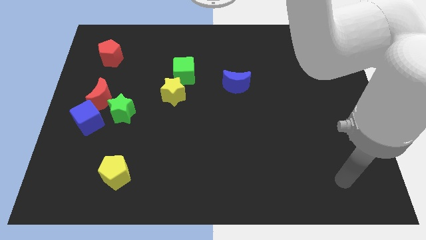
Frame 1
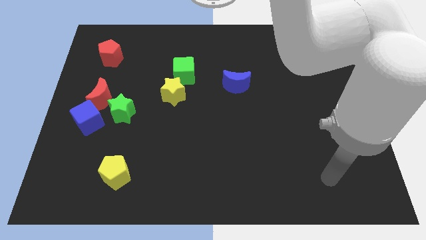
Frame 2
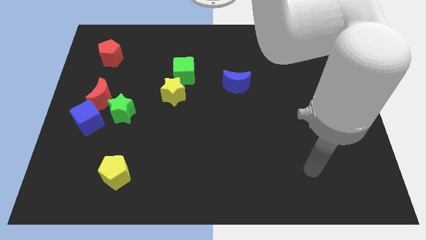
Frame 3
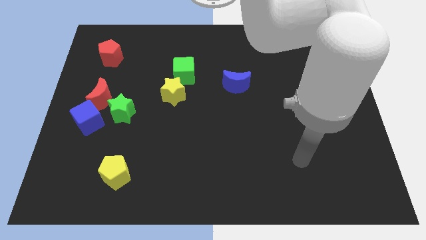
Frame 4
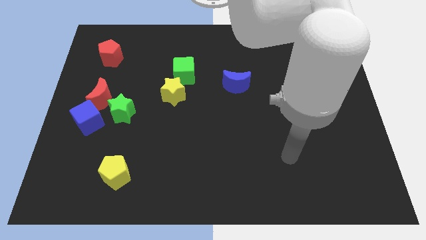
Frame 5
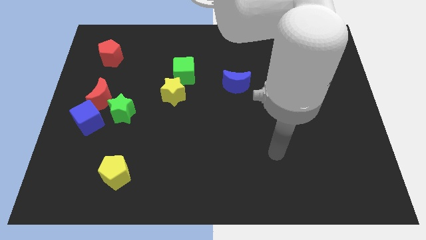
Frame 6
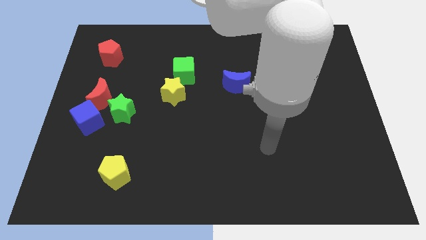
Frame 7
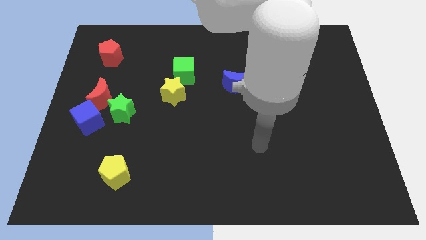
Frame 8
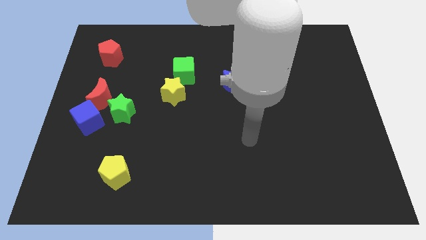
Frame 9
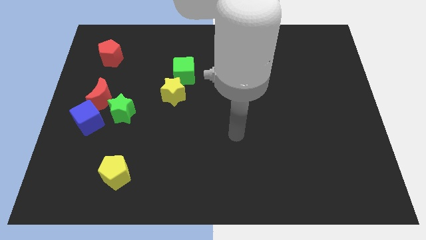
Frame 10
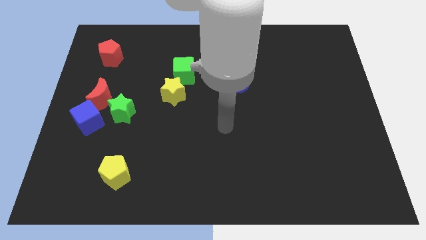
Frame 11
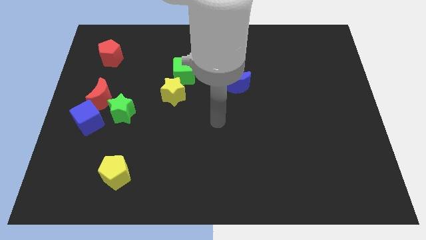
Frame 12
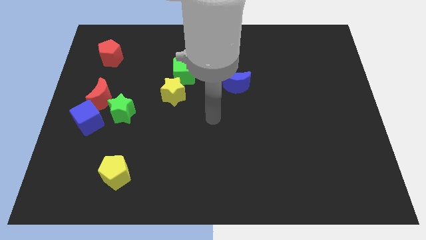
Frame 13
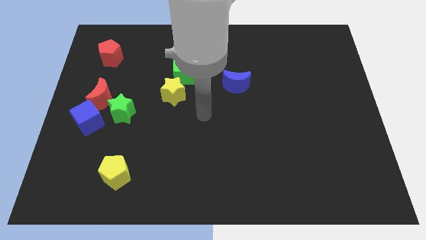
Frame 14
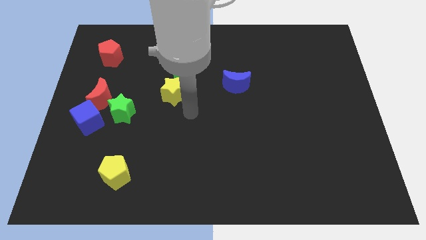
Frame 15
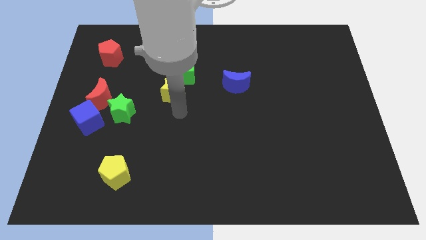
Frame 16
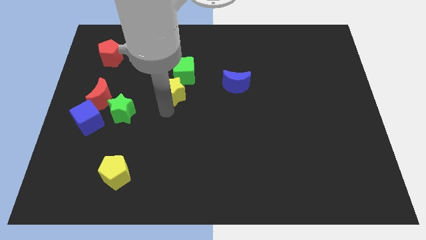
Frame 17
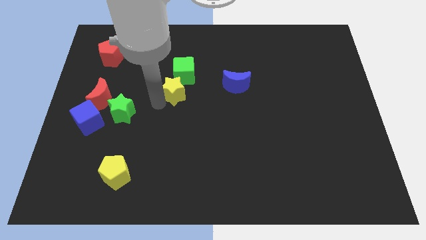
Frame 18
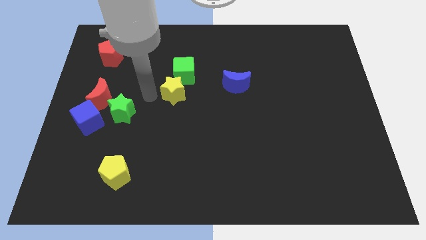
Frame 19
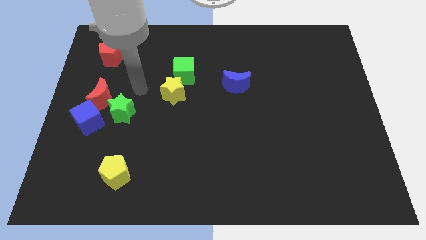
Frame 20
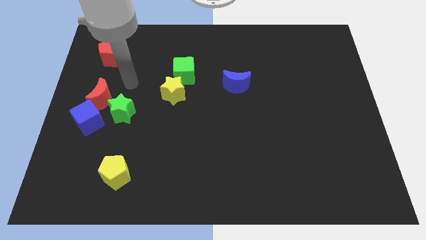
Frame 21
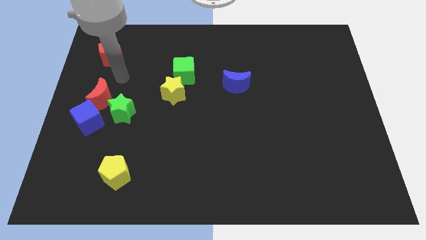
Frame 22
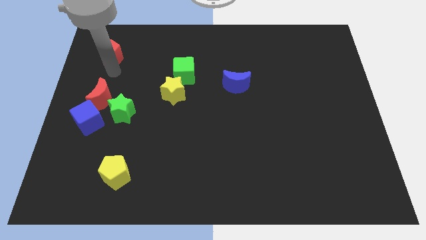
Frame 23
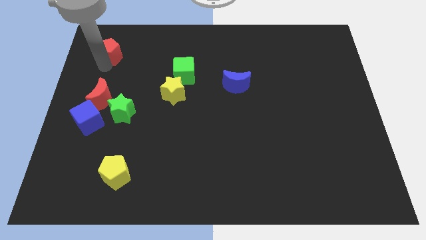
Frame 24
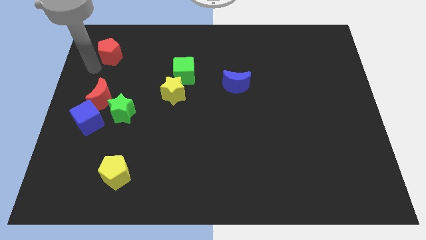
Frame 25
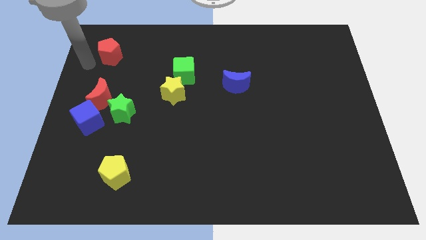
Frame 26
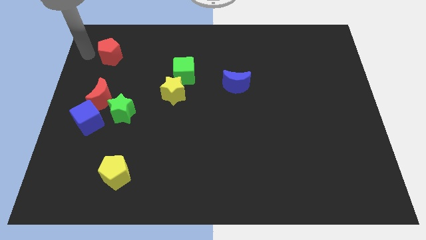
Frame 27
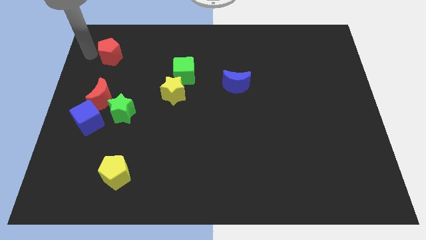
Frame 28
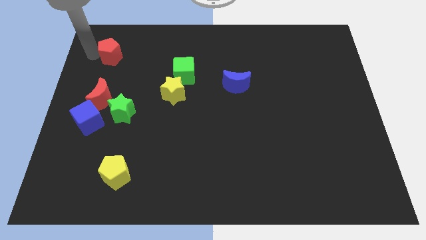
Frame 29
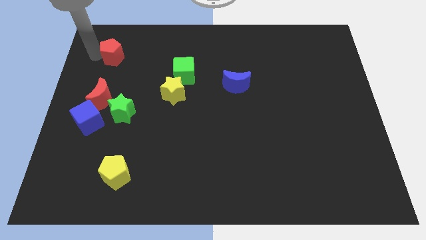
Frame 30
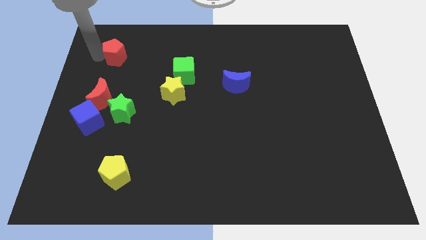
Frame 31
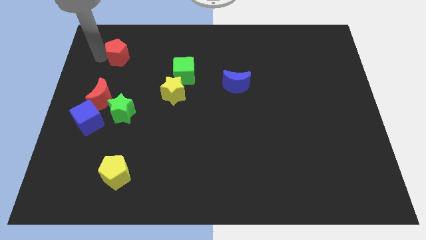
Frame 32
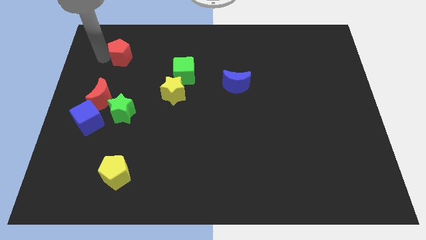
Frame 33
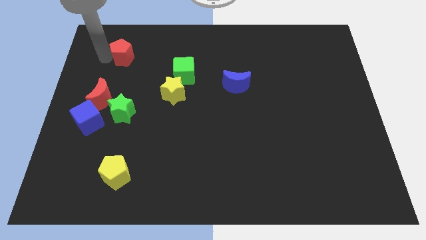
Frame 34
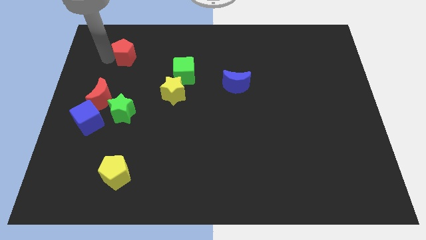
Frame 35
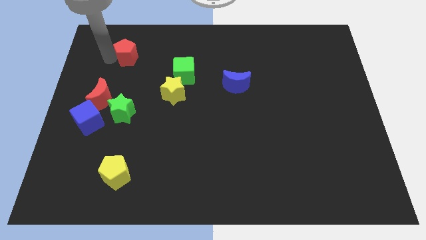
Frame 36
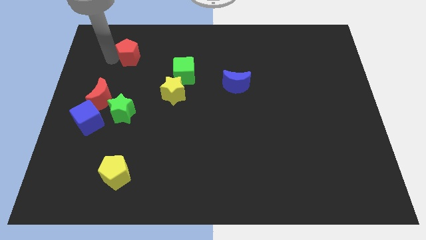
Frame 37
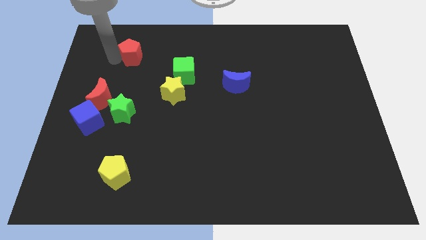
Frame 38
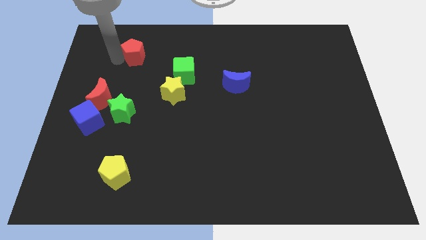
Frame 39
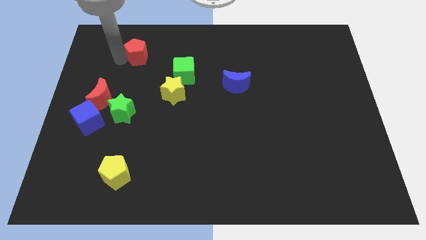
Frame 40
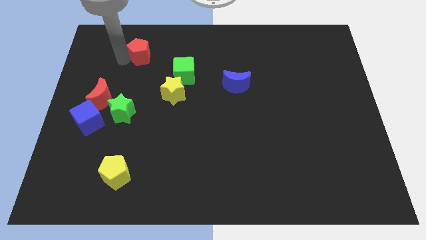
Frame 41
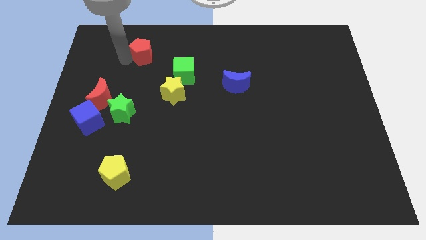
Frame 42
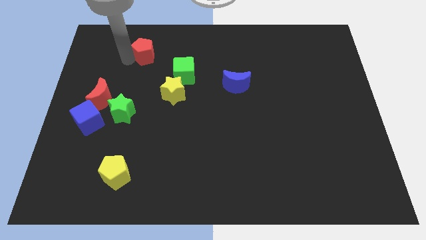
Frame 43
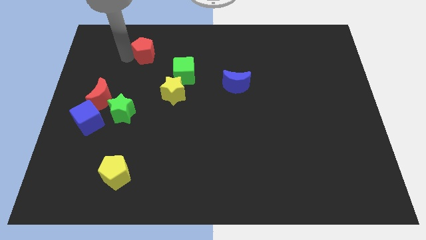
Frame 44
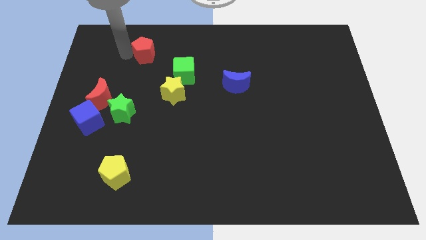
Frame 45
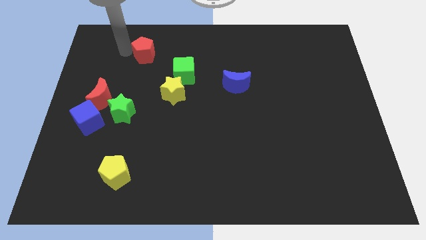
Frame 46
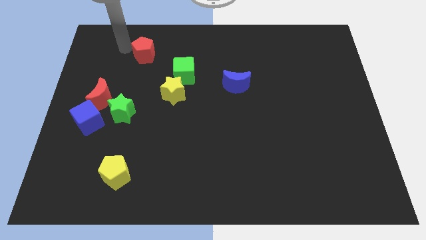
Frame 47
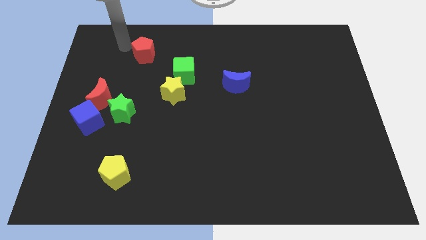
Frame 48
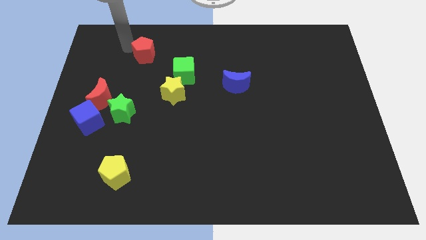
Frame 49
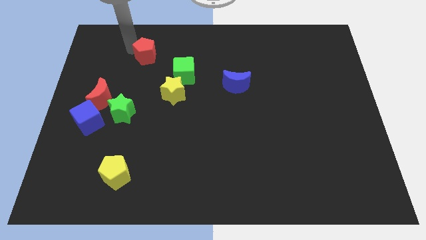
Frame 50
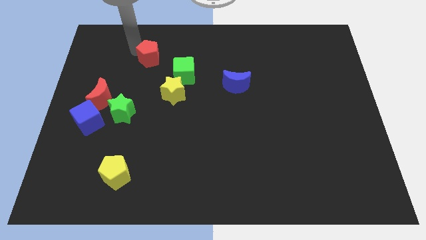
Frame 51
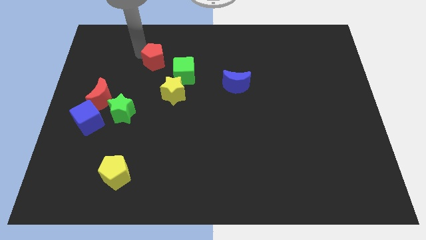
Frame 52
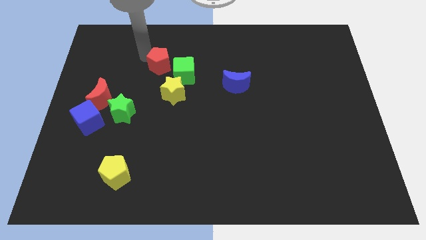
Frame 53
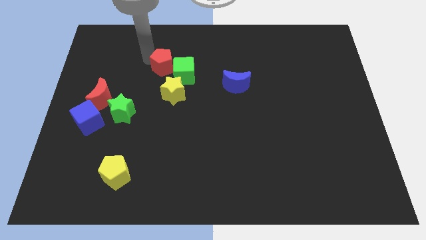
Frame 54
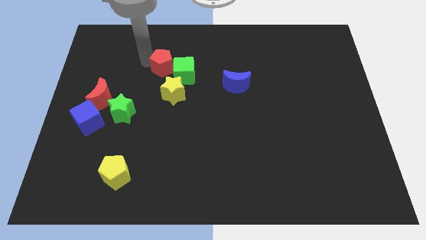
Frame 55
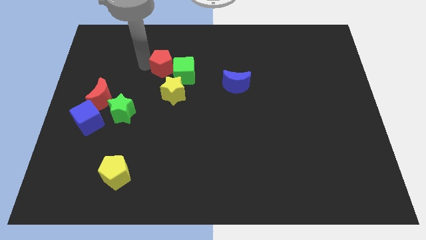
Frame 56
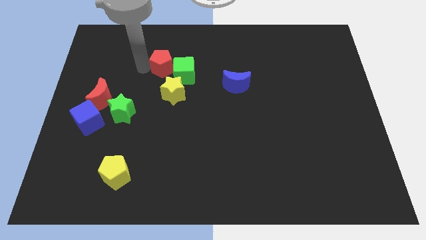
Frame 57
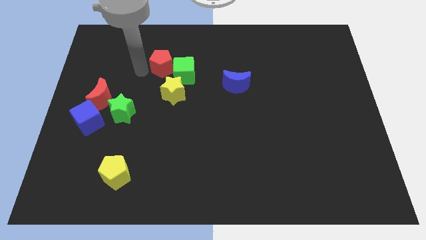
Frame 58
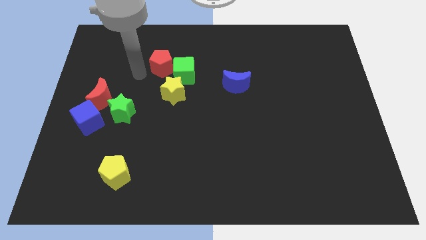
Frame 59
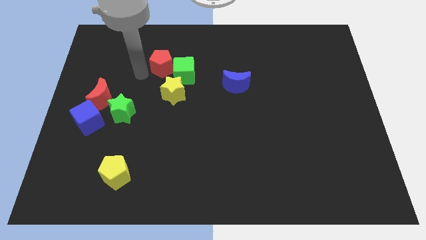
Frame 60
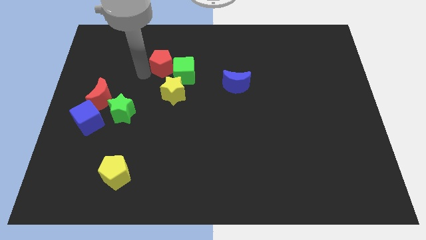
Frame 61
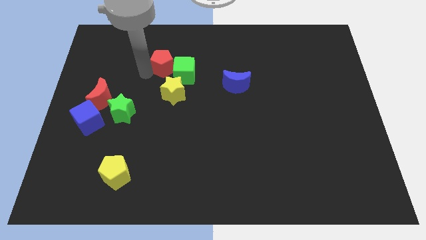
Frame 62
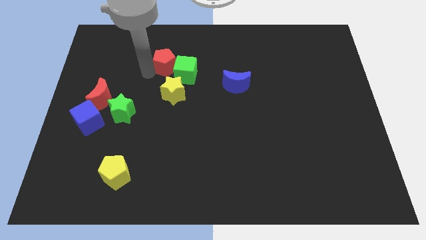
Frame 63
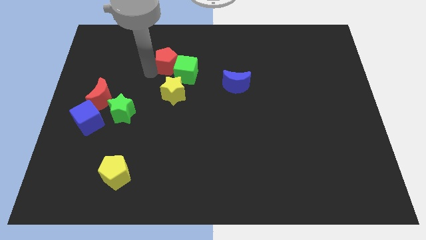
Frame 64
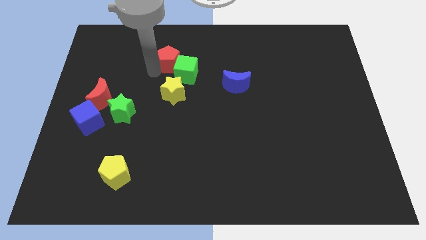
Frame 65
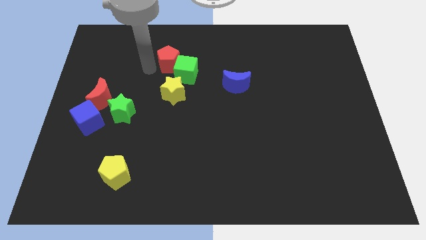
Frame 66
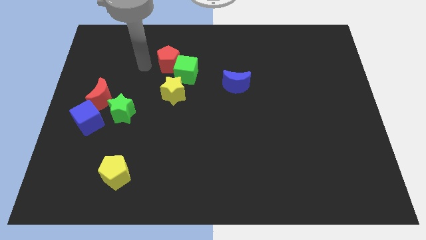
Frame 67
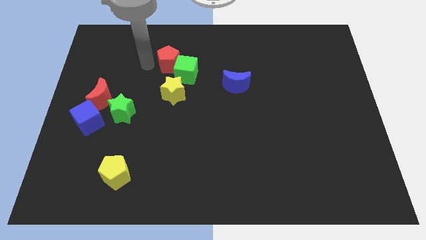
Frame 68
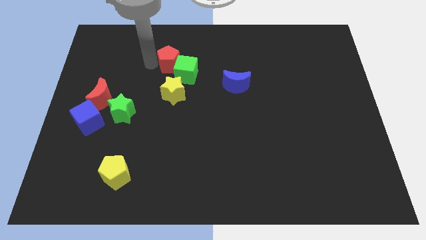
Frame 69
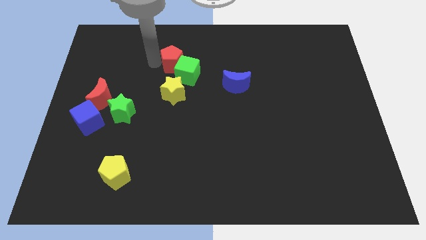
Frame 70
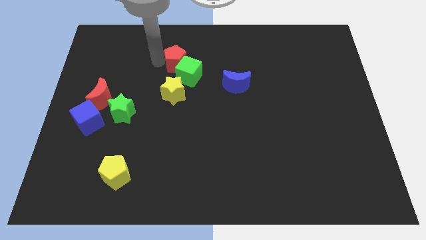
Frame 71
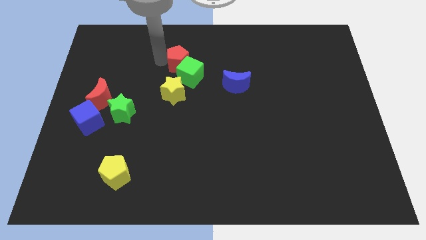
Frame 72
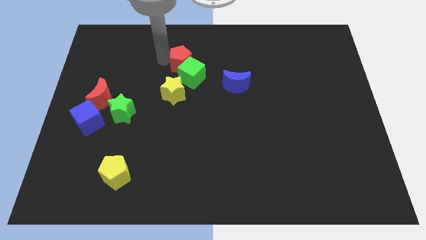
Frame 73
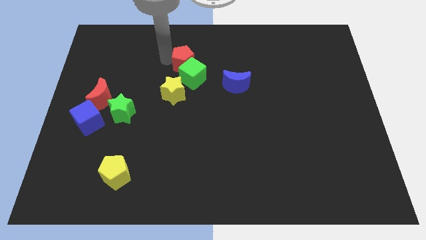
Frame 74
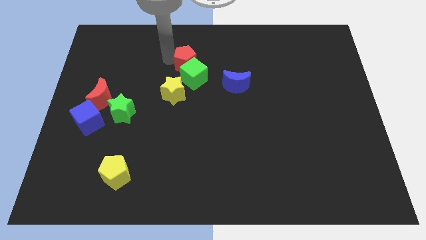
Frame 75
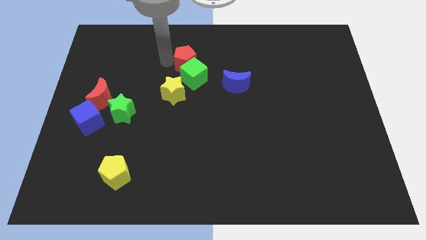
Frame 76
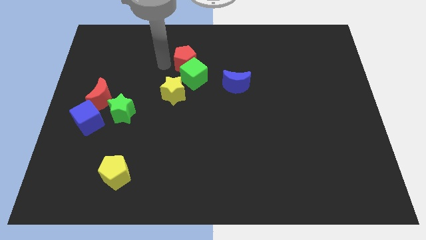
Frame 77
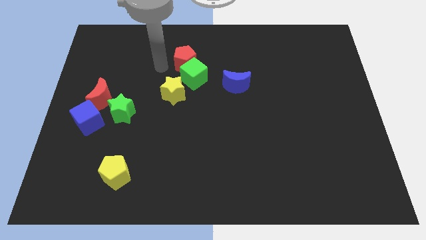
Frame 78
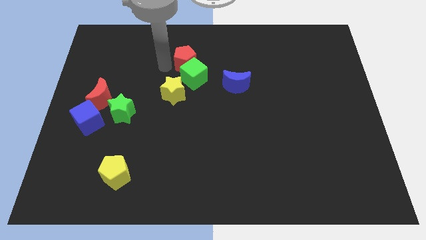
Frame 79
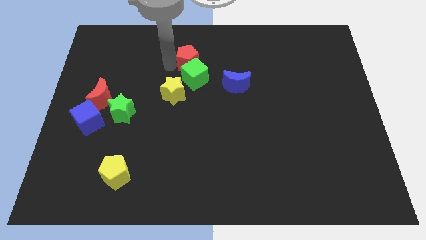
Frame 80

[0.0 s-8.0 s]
slide the red pentagon to the right

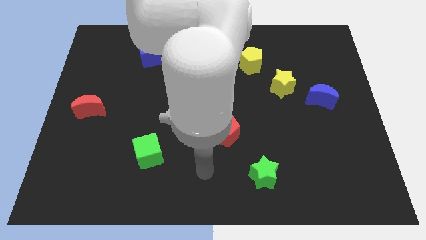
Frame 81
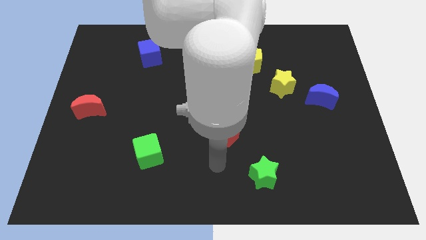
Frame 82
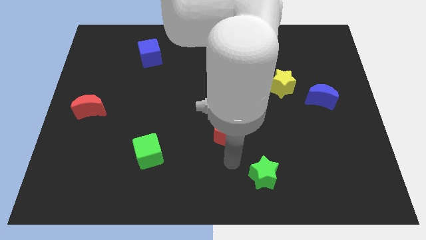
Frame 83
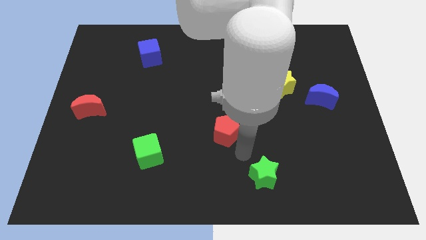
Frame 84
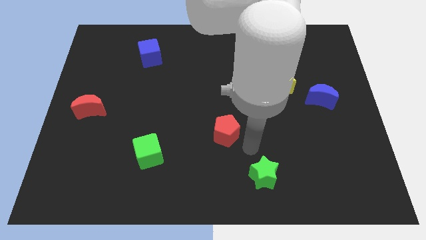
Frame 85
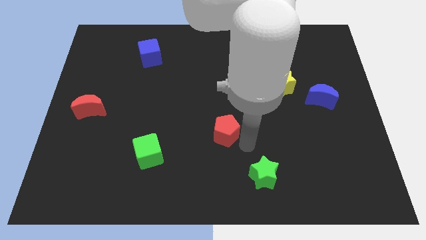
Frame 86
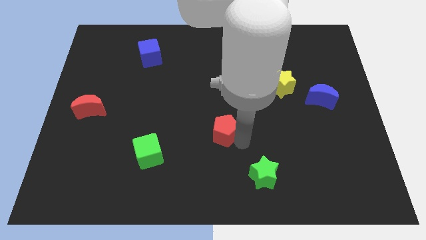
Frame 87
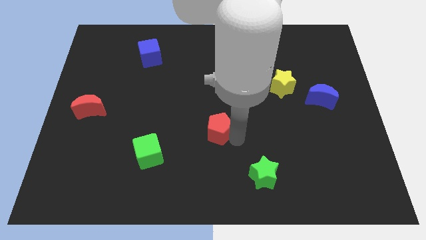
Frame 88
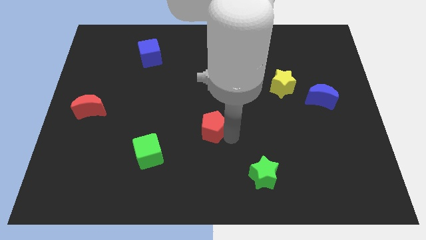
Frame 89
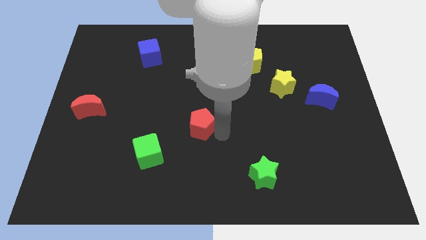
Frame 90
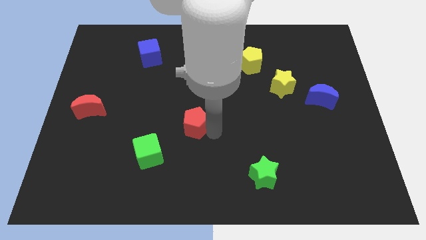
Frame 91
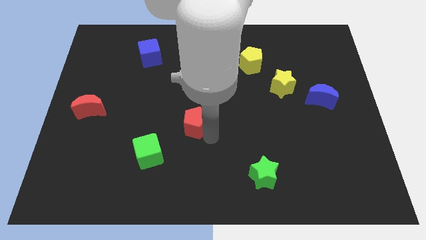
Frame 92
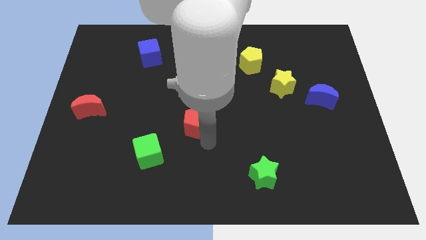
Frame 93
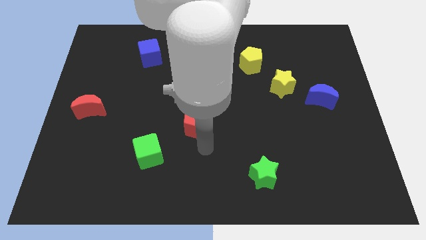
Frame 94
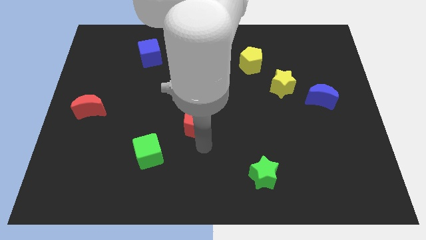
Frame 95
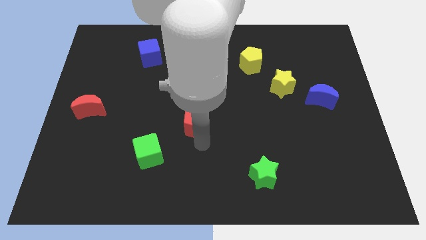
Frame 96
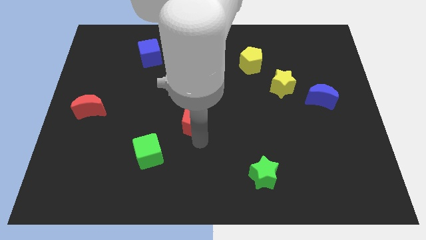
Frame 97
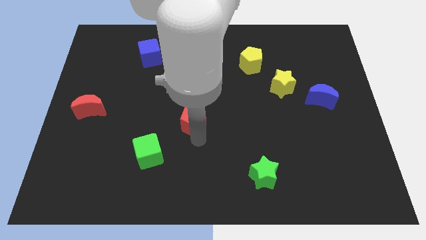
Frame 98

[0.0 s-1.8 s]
move the red pentagon a little bit diagonally up and left
